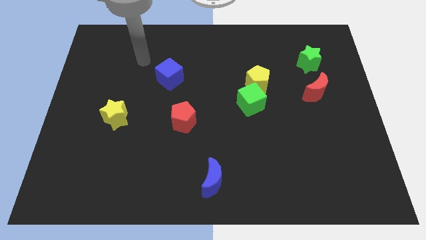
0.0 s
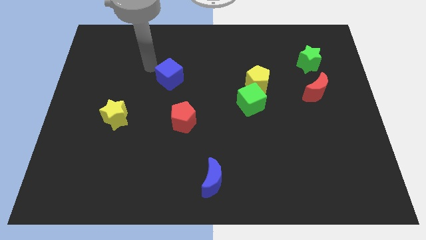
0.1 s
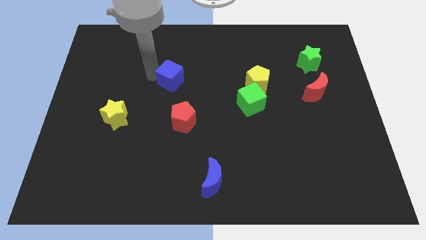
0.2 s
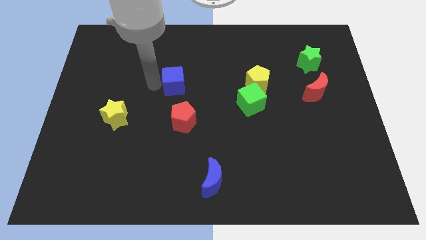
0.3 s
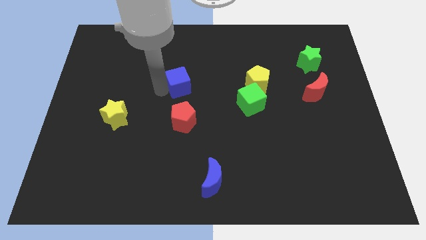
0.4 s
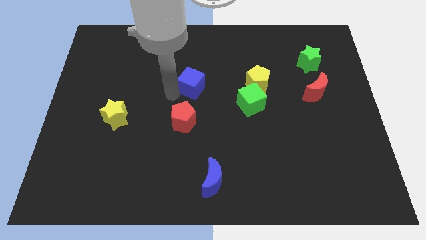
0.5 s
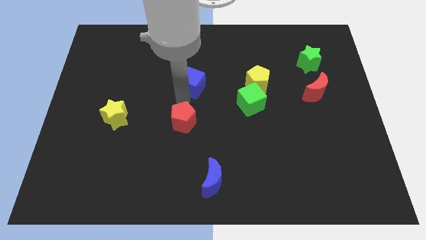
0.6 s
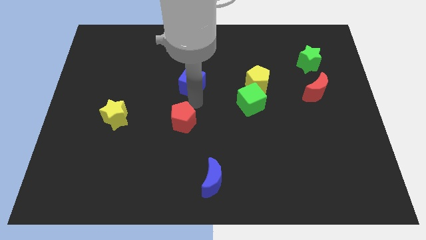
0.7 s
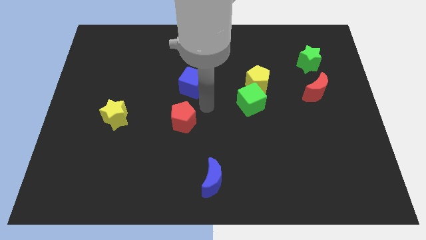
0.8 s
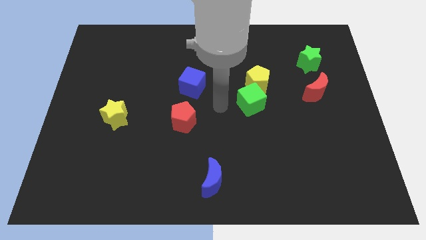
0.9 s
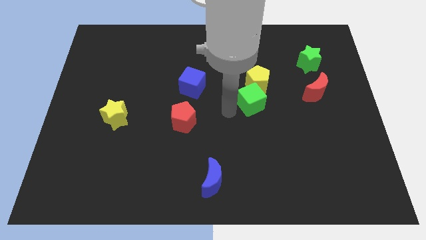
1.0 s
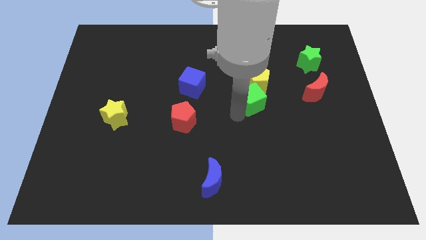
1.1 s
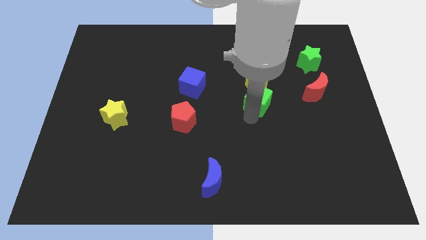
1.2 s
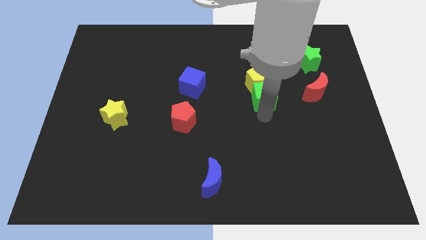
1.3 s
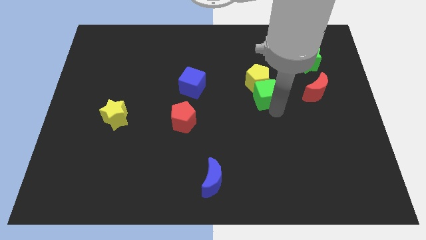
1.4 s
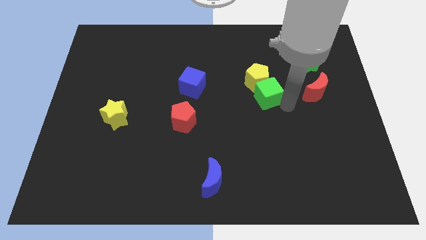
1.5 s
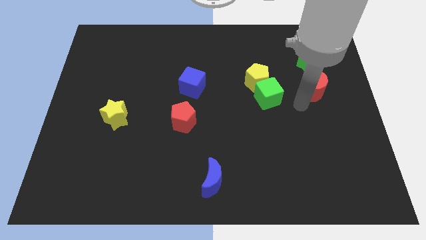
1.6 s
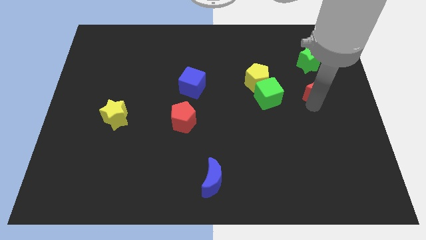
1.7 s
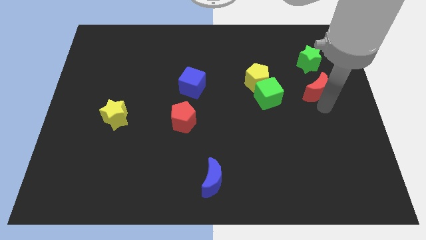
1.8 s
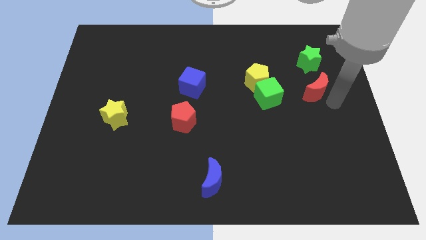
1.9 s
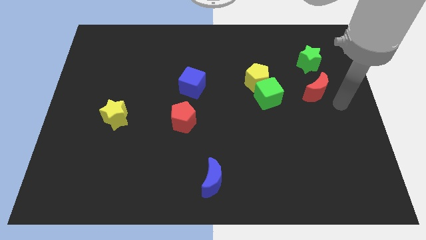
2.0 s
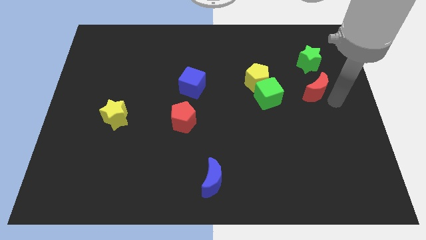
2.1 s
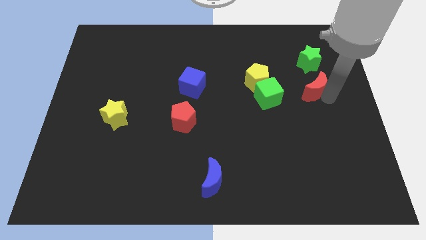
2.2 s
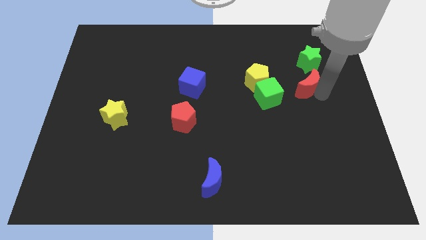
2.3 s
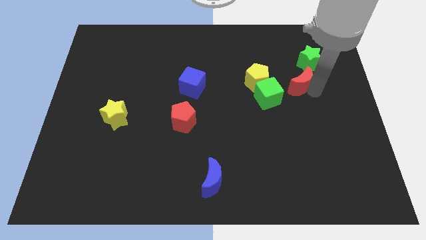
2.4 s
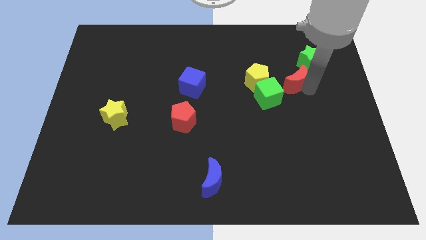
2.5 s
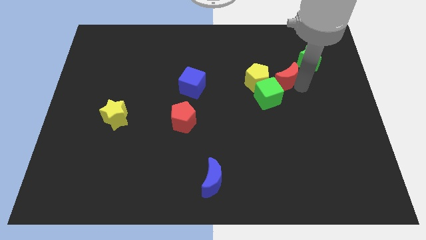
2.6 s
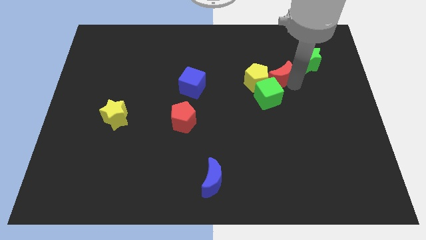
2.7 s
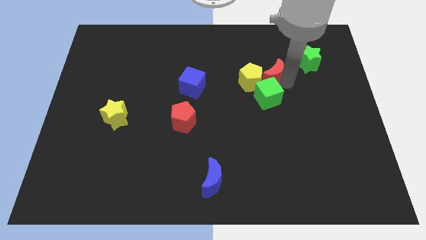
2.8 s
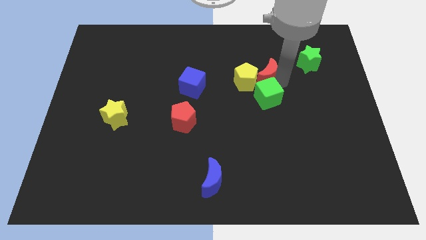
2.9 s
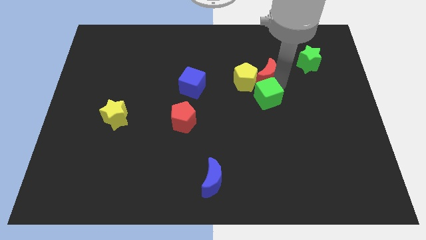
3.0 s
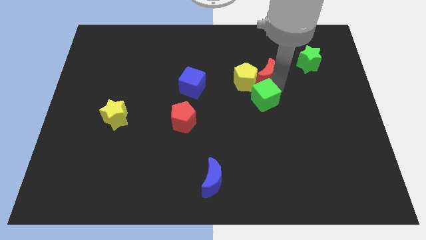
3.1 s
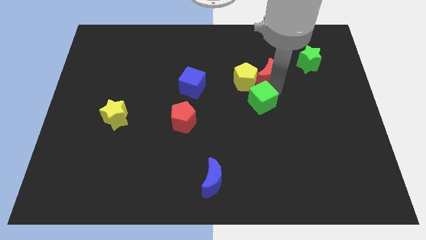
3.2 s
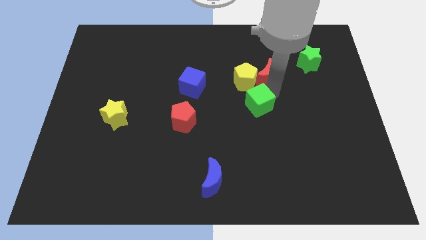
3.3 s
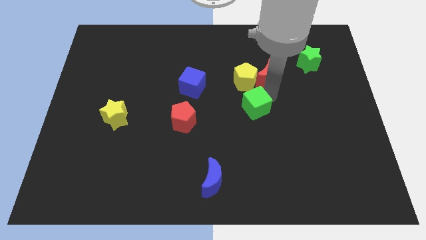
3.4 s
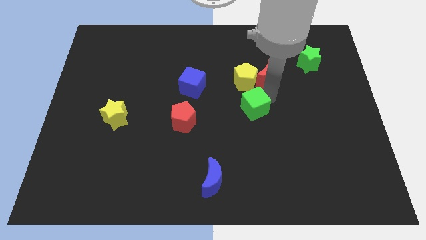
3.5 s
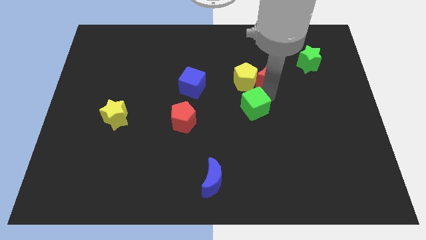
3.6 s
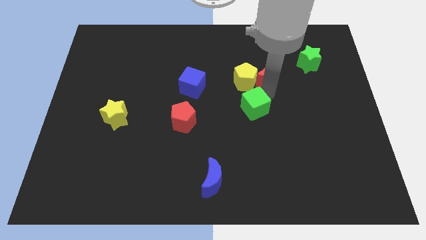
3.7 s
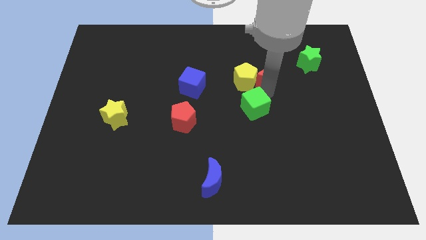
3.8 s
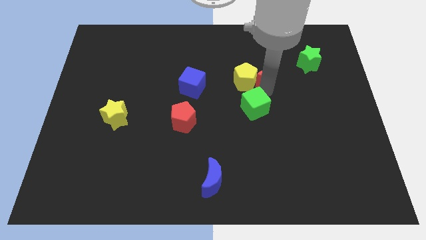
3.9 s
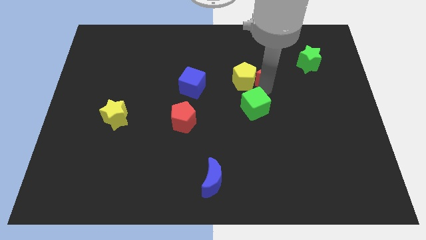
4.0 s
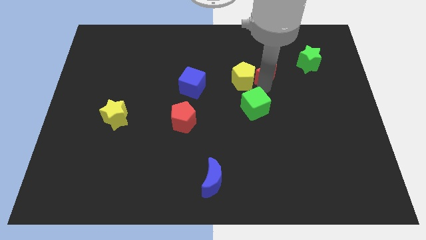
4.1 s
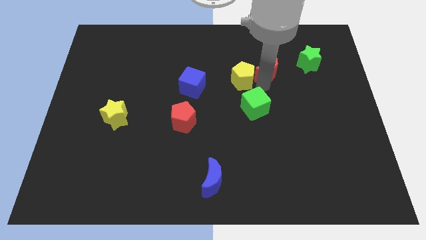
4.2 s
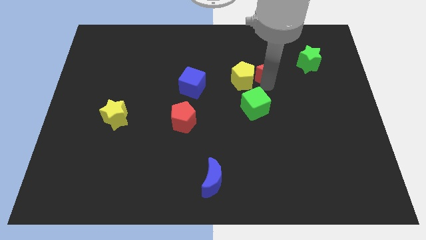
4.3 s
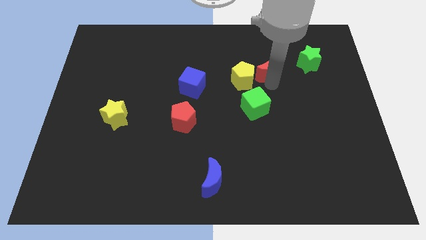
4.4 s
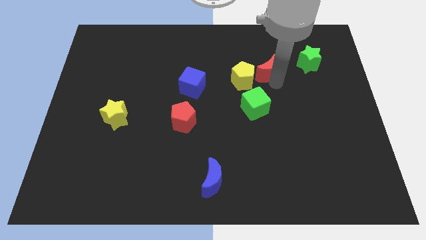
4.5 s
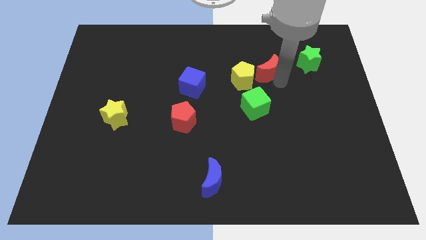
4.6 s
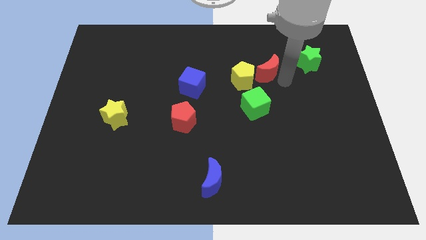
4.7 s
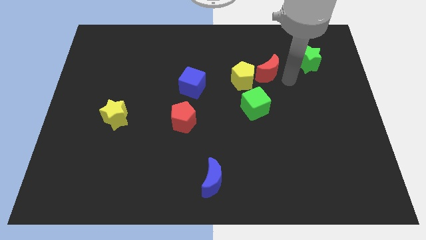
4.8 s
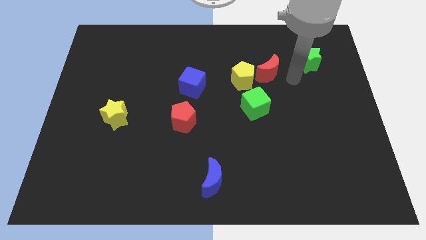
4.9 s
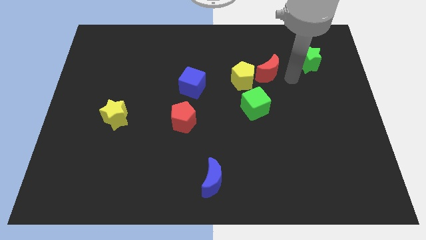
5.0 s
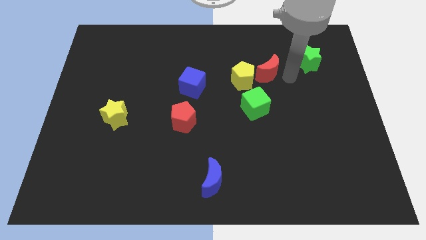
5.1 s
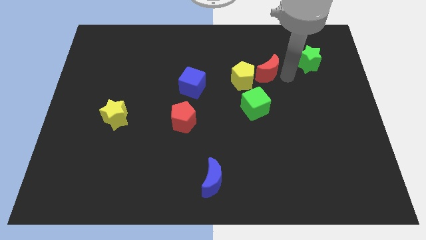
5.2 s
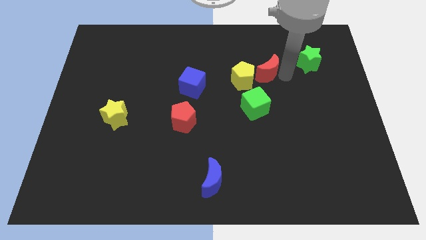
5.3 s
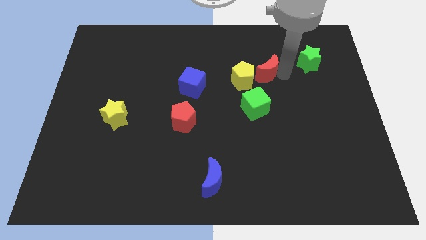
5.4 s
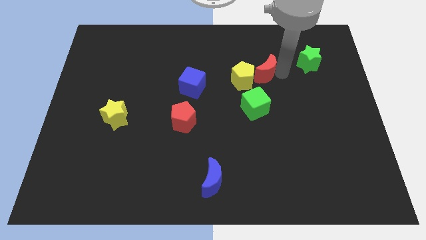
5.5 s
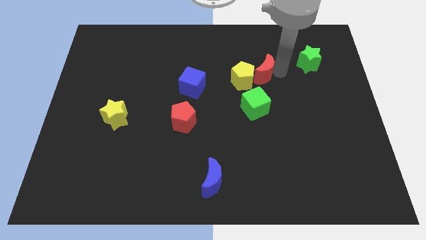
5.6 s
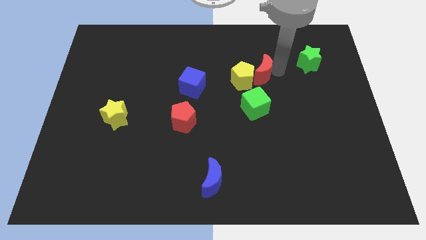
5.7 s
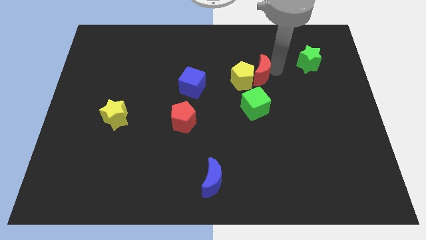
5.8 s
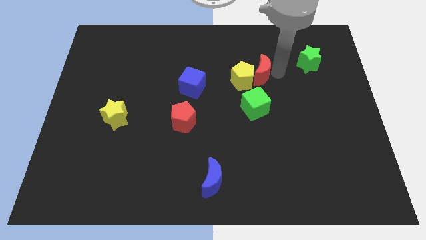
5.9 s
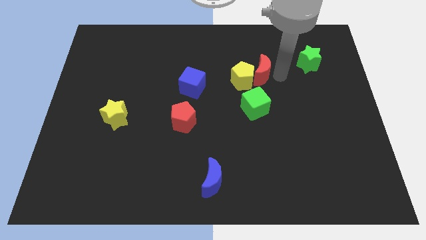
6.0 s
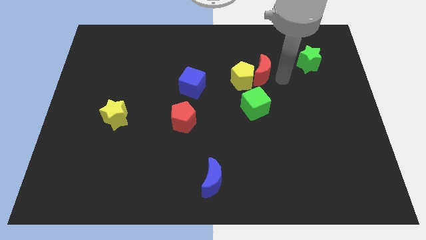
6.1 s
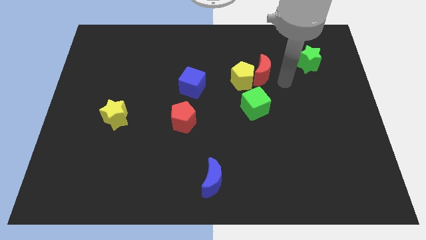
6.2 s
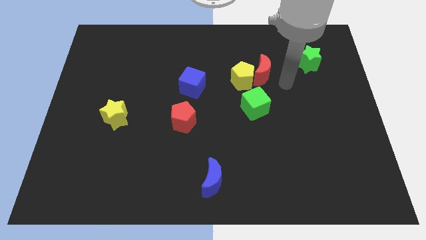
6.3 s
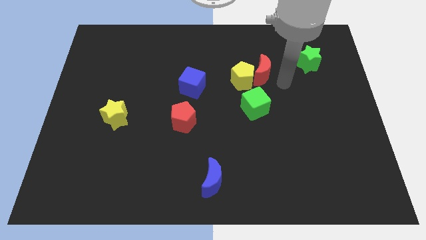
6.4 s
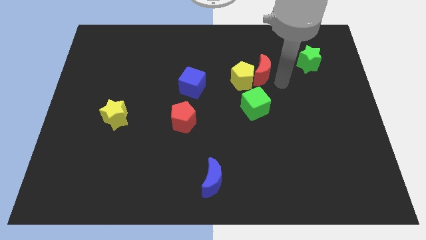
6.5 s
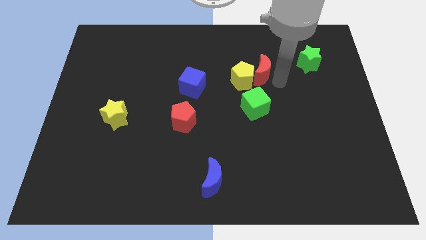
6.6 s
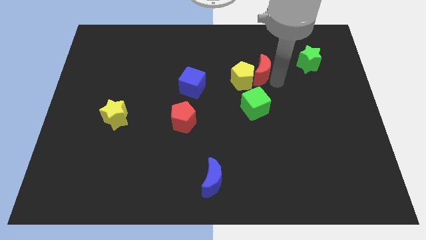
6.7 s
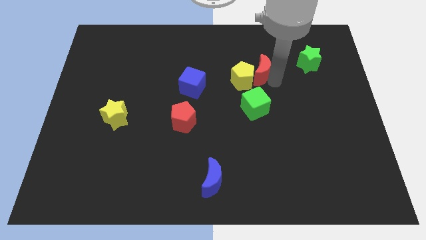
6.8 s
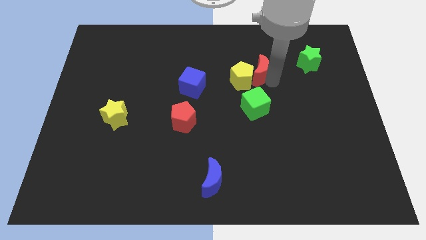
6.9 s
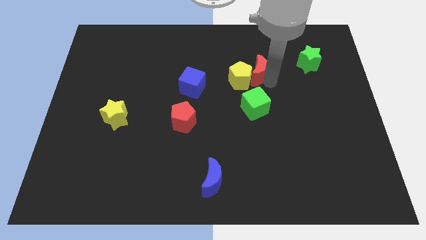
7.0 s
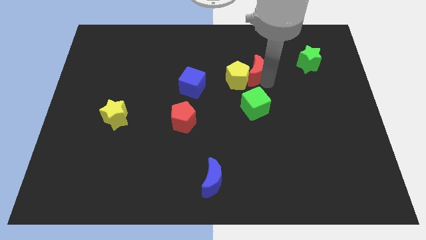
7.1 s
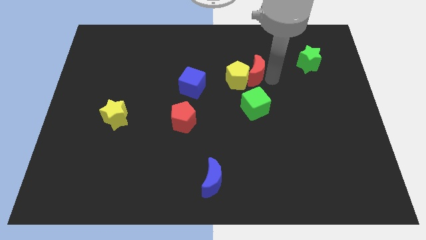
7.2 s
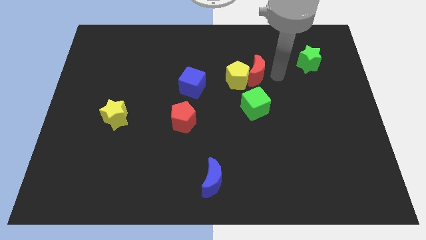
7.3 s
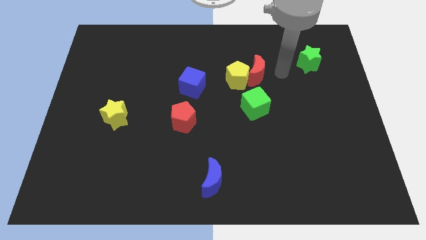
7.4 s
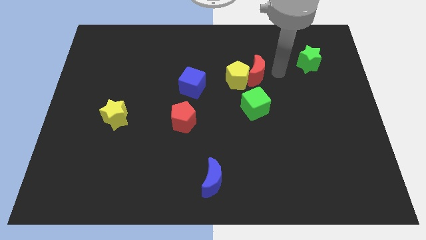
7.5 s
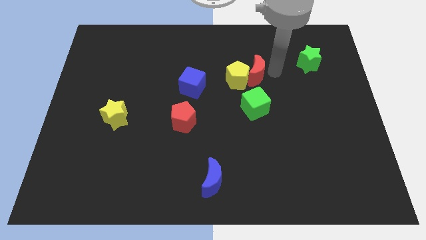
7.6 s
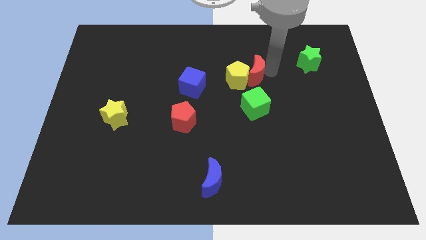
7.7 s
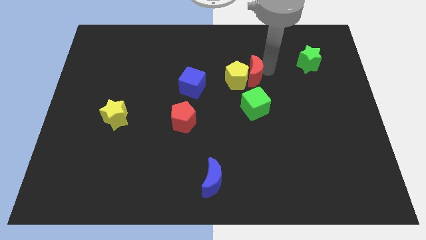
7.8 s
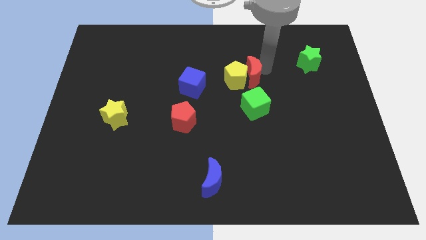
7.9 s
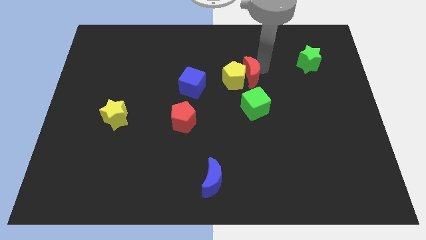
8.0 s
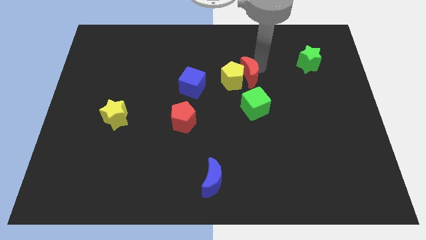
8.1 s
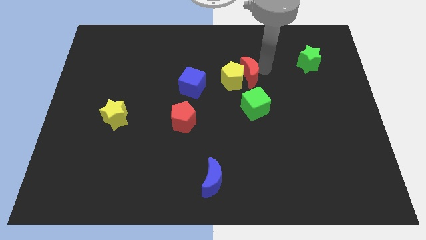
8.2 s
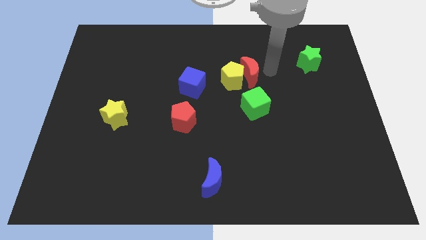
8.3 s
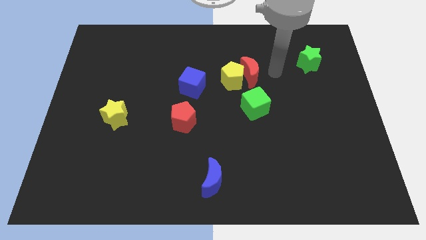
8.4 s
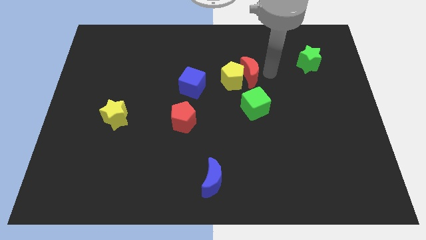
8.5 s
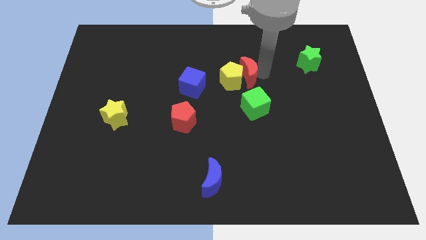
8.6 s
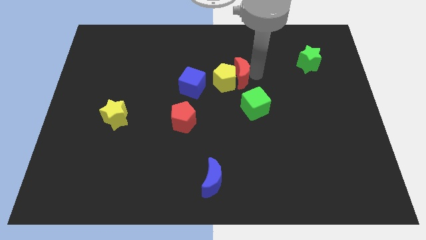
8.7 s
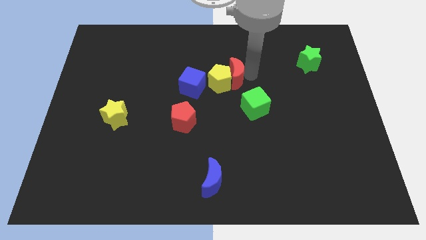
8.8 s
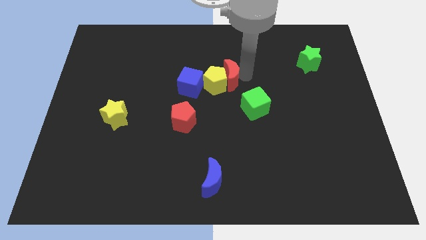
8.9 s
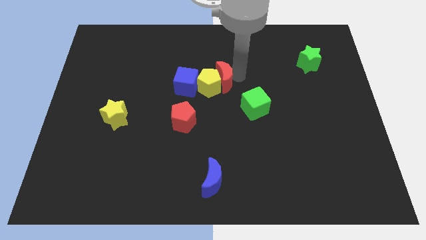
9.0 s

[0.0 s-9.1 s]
move the red moon left
